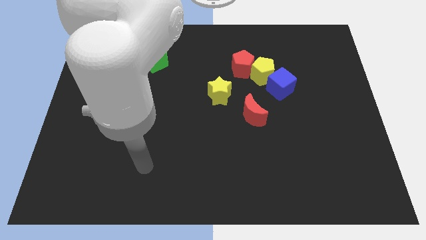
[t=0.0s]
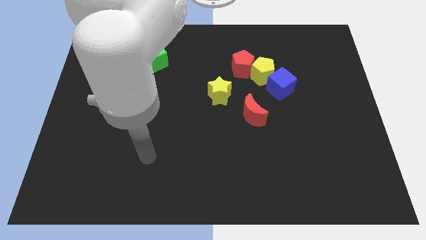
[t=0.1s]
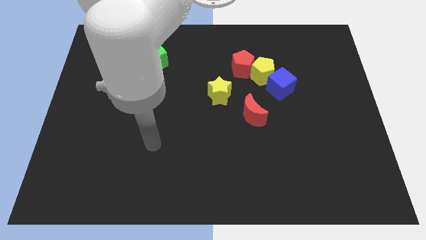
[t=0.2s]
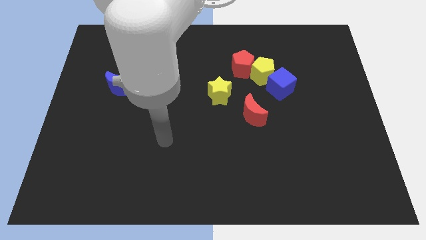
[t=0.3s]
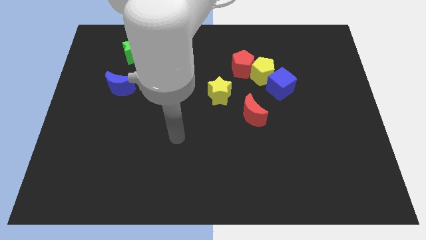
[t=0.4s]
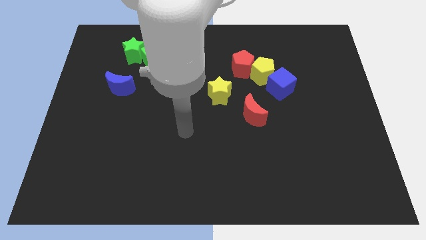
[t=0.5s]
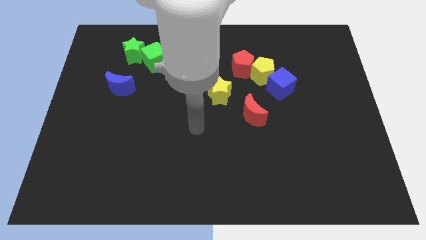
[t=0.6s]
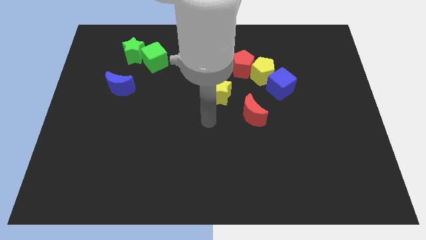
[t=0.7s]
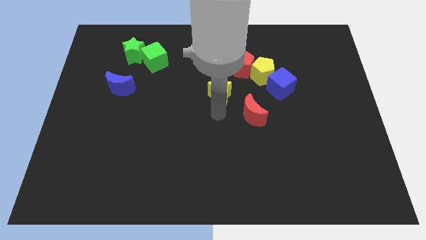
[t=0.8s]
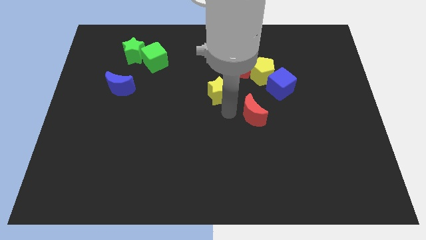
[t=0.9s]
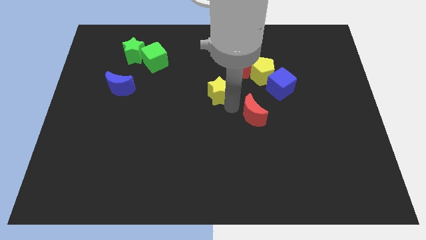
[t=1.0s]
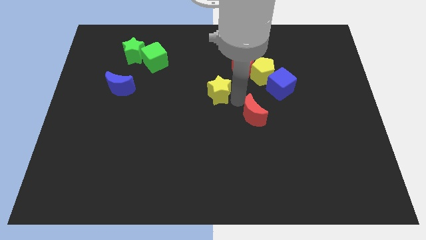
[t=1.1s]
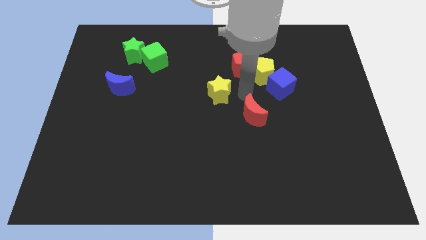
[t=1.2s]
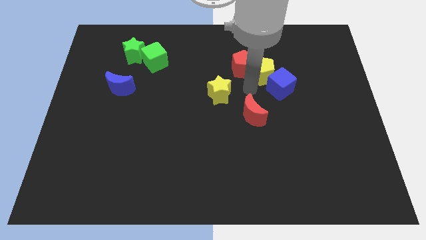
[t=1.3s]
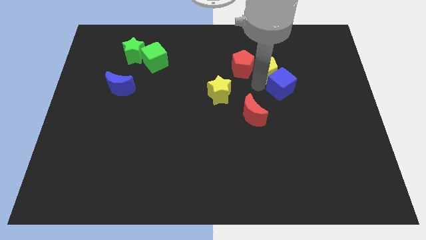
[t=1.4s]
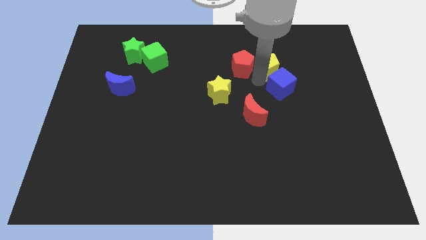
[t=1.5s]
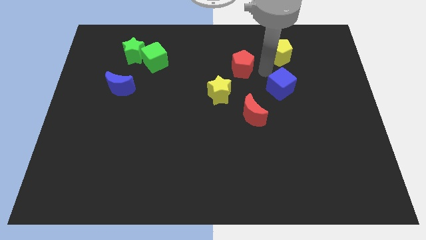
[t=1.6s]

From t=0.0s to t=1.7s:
separate the blue cube from the yellow pentagon

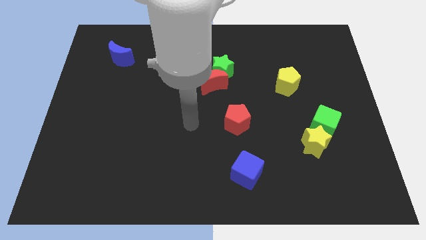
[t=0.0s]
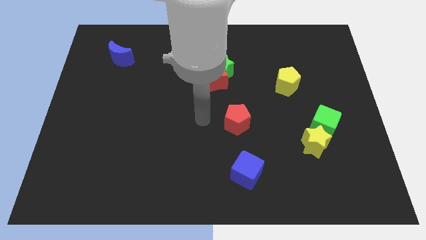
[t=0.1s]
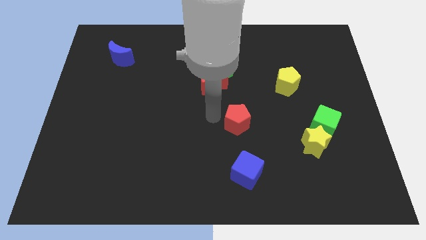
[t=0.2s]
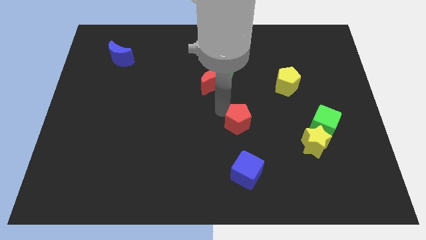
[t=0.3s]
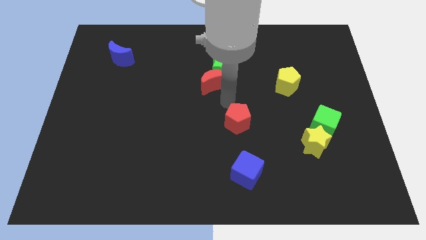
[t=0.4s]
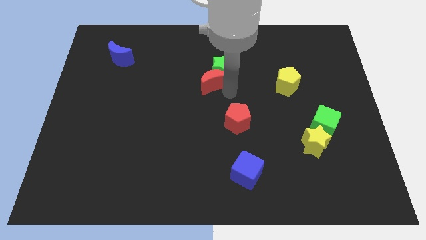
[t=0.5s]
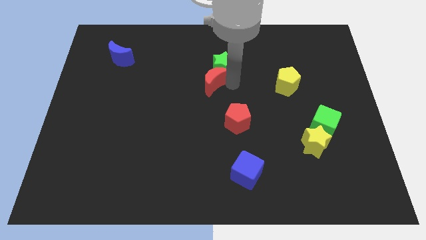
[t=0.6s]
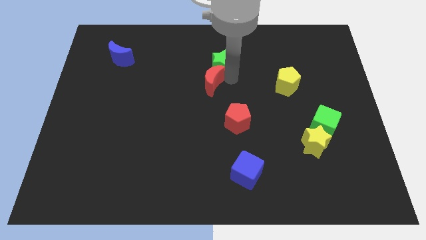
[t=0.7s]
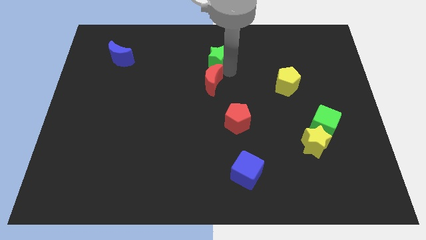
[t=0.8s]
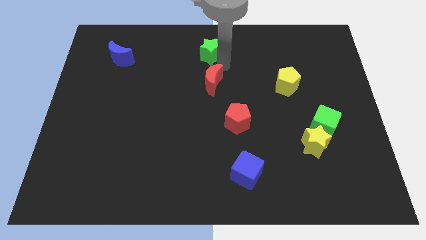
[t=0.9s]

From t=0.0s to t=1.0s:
pull the red moon apart from the green star

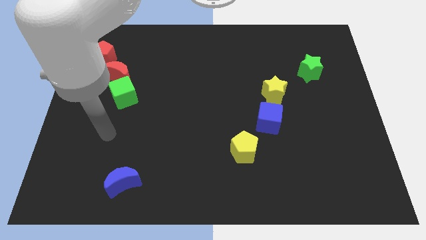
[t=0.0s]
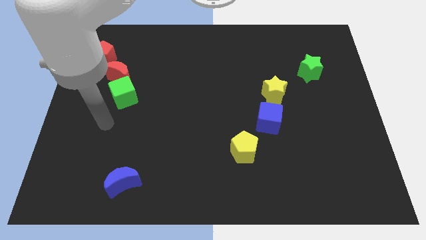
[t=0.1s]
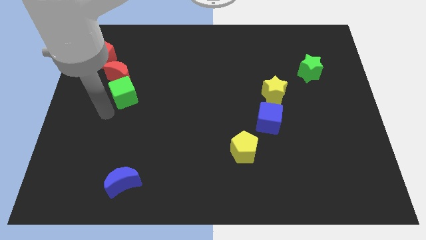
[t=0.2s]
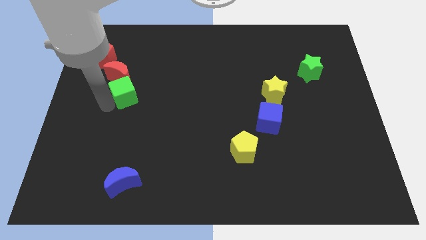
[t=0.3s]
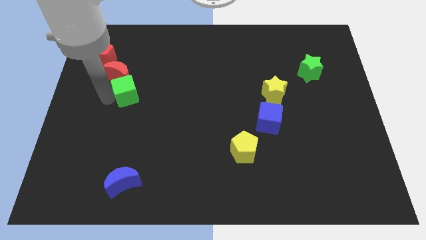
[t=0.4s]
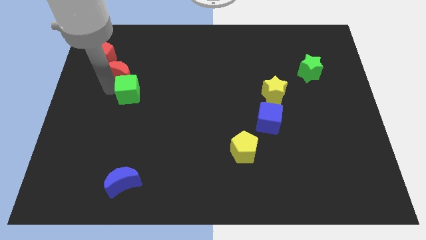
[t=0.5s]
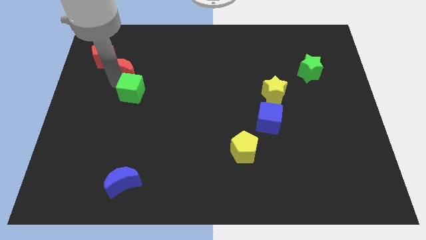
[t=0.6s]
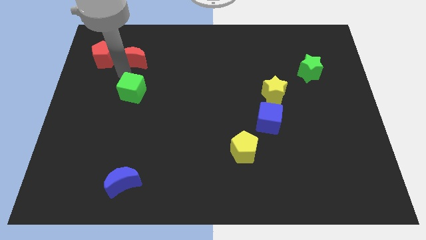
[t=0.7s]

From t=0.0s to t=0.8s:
pull the green cube apart from the red moon

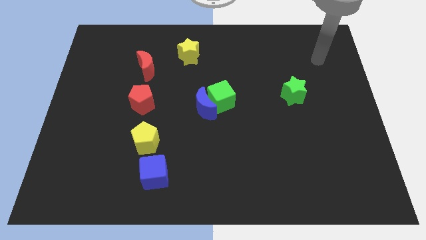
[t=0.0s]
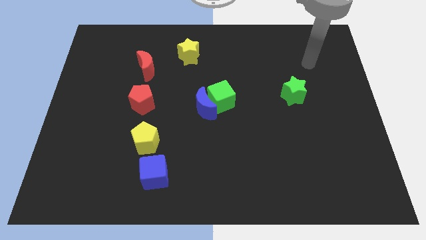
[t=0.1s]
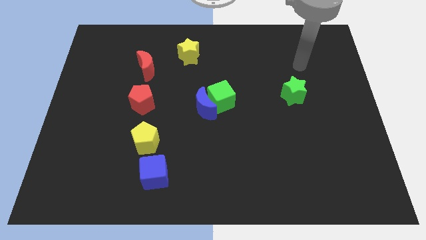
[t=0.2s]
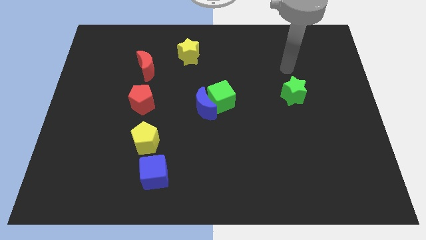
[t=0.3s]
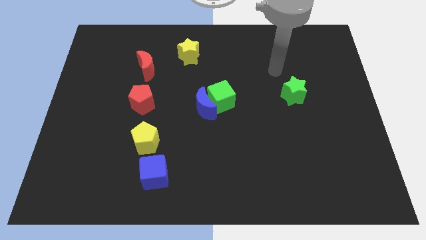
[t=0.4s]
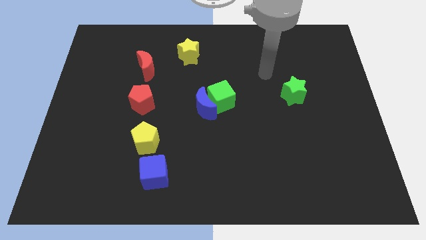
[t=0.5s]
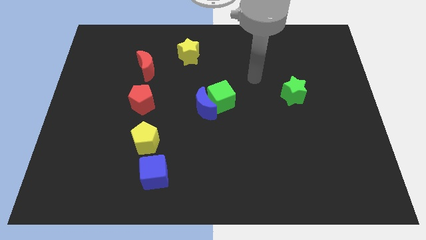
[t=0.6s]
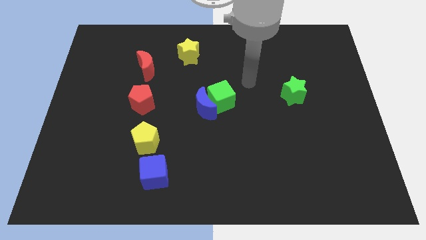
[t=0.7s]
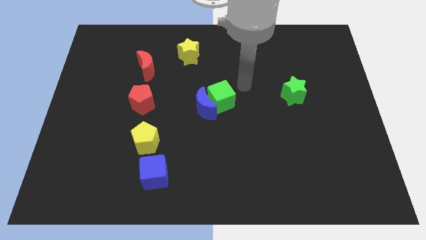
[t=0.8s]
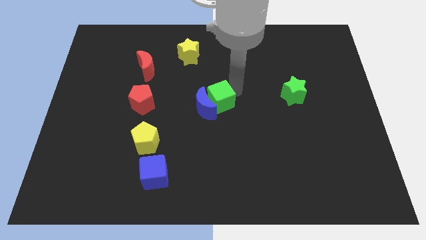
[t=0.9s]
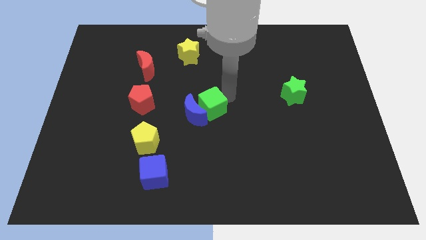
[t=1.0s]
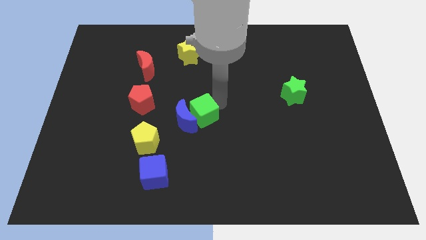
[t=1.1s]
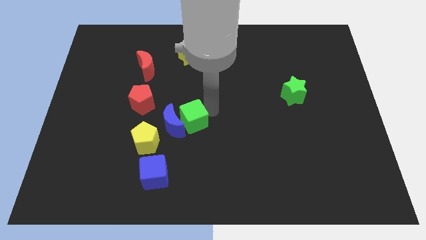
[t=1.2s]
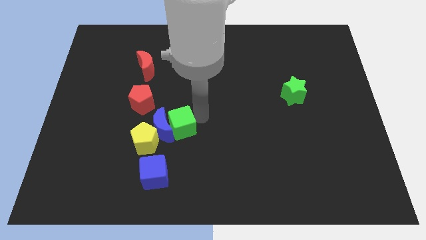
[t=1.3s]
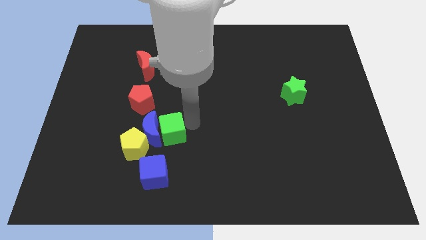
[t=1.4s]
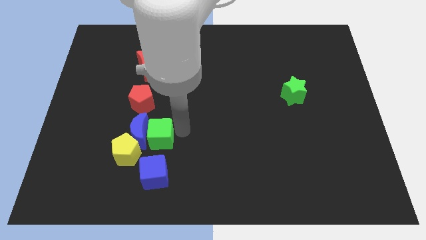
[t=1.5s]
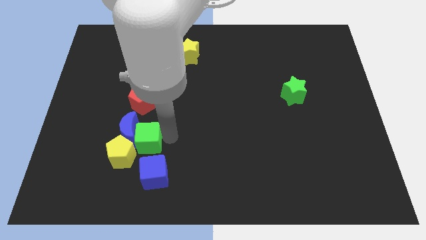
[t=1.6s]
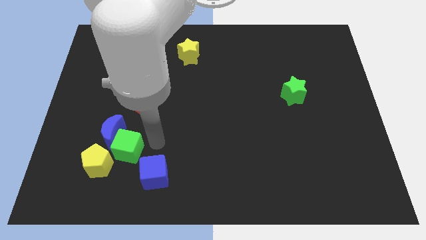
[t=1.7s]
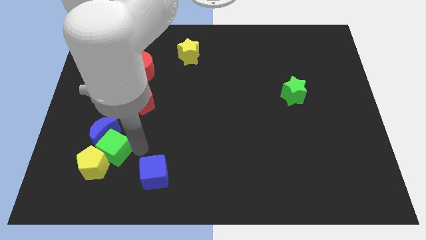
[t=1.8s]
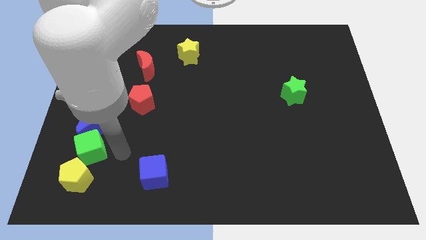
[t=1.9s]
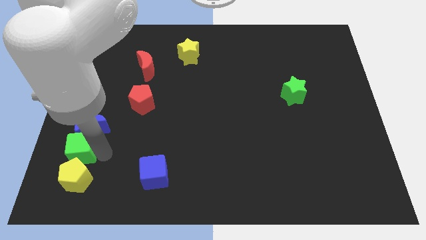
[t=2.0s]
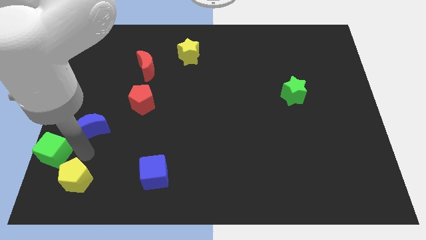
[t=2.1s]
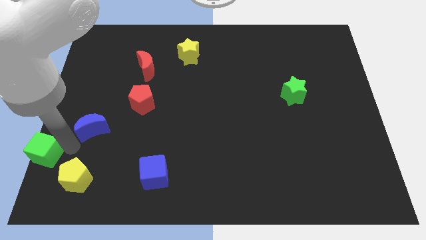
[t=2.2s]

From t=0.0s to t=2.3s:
separate the blue moon from the green cube

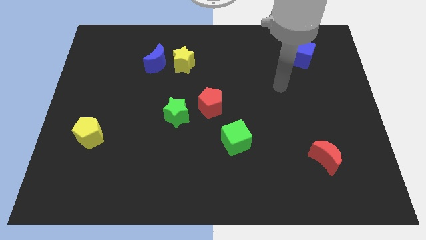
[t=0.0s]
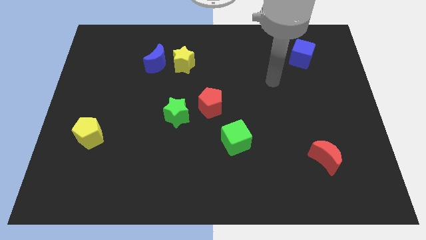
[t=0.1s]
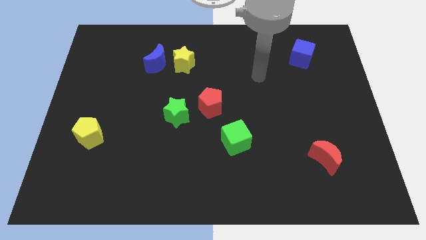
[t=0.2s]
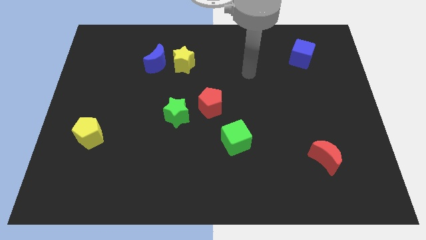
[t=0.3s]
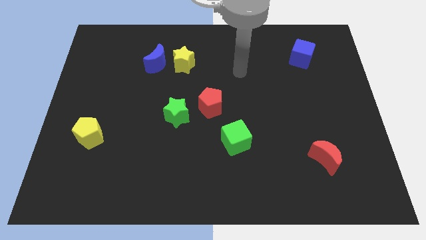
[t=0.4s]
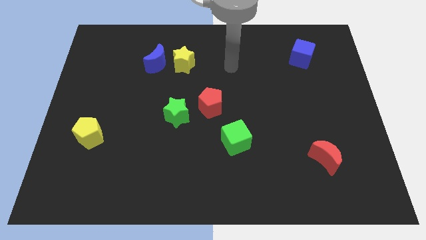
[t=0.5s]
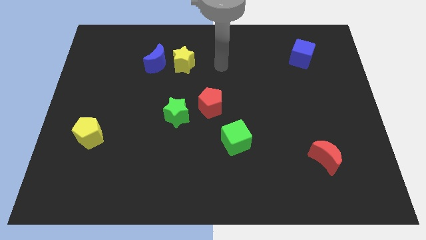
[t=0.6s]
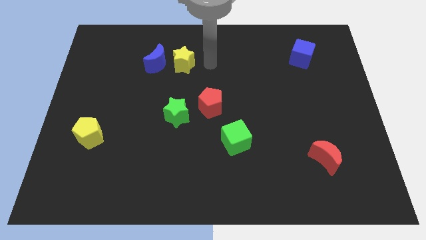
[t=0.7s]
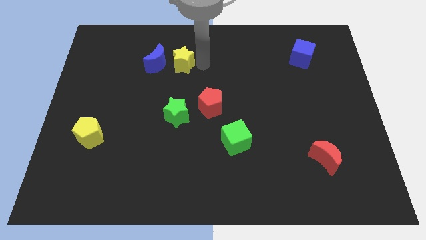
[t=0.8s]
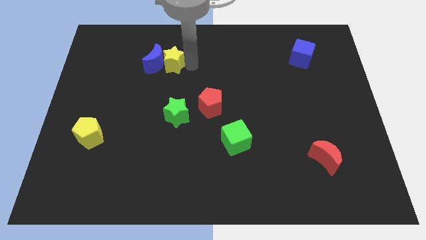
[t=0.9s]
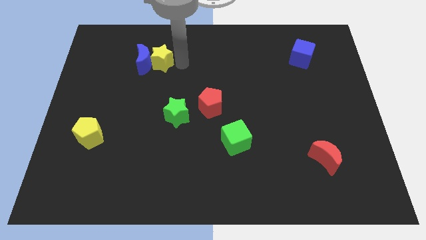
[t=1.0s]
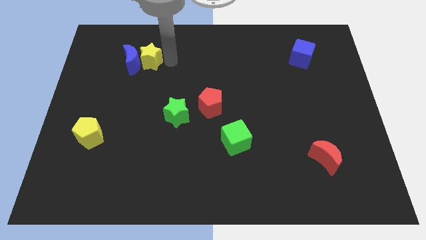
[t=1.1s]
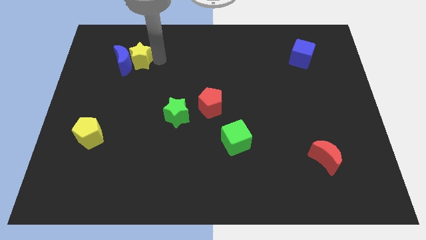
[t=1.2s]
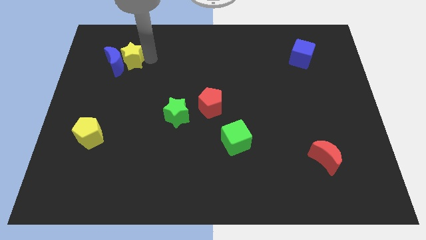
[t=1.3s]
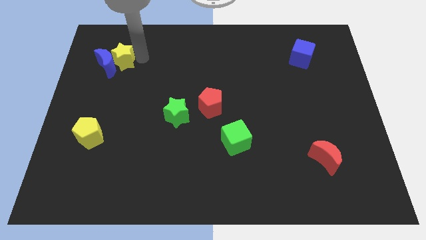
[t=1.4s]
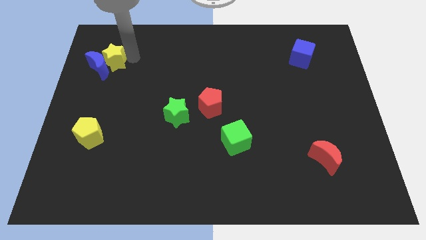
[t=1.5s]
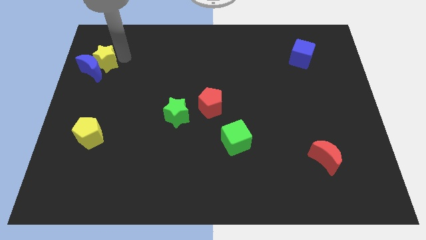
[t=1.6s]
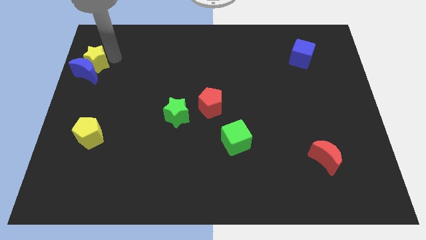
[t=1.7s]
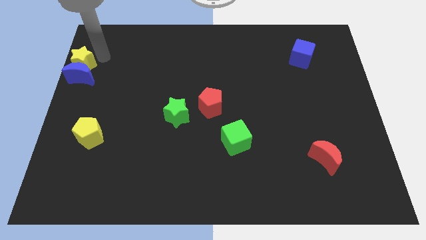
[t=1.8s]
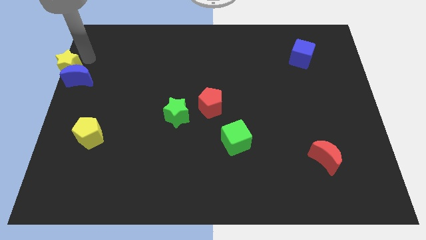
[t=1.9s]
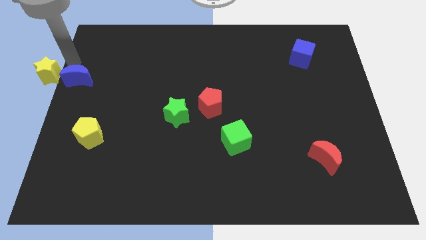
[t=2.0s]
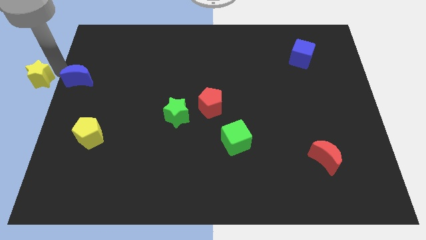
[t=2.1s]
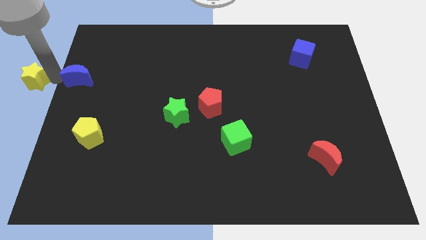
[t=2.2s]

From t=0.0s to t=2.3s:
pull the blue moon apart from the yellow star

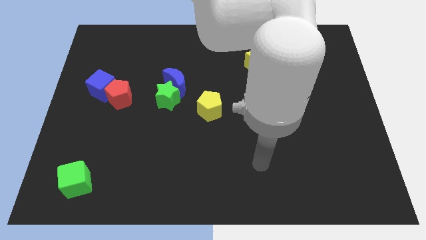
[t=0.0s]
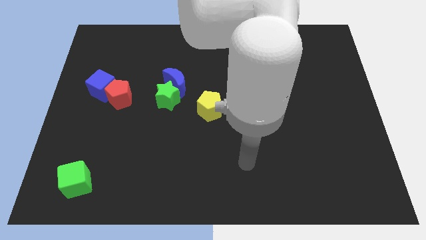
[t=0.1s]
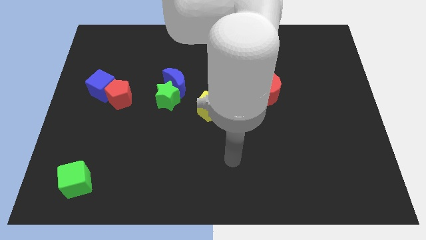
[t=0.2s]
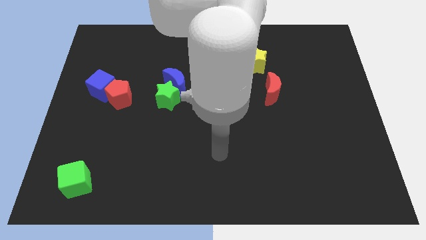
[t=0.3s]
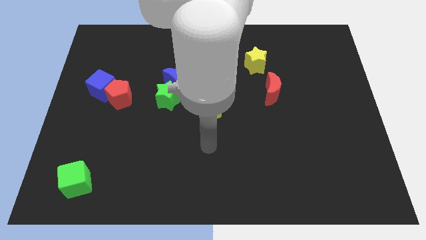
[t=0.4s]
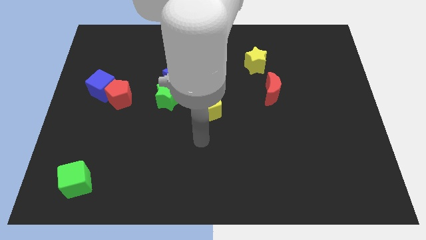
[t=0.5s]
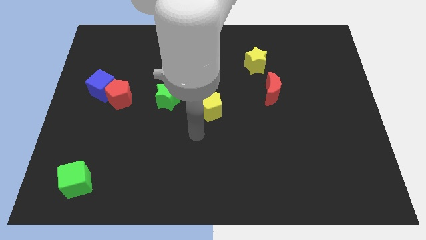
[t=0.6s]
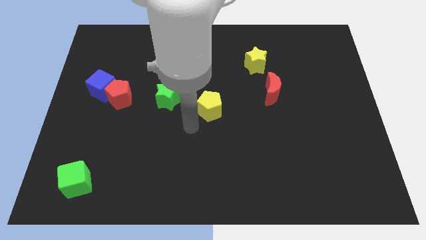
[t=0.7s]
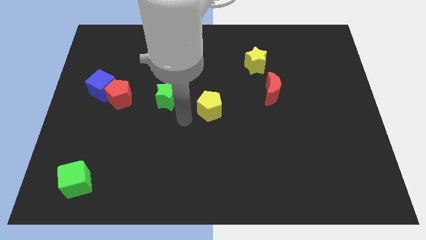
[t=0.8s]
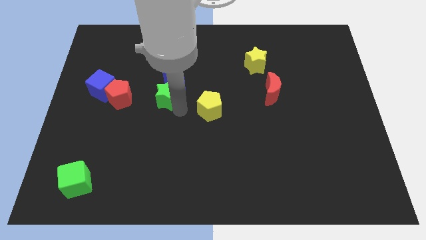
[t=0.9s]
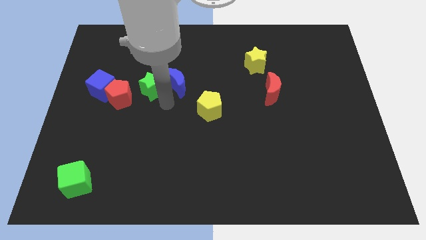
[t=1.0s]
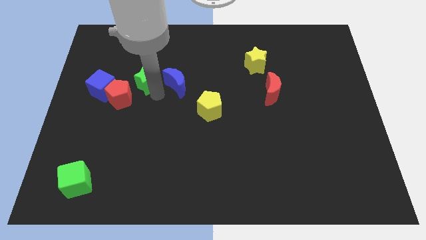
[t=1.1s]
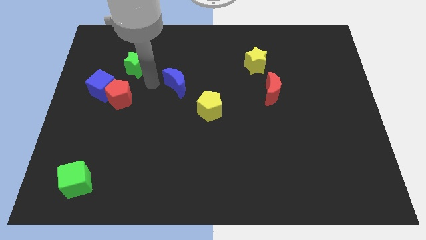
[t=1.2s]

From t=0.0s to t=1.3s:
move the blue moon away from the green star
